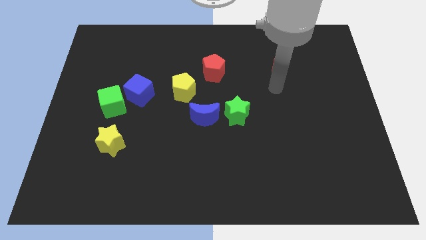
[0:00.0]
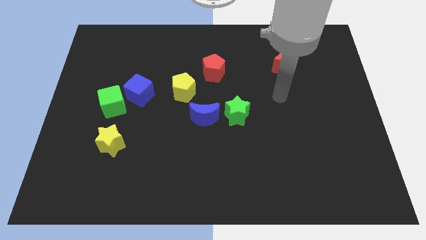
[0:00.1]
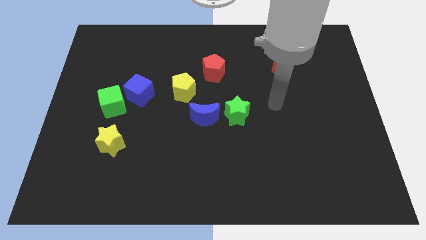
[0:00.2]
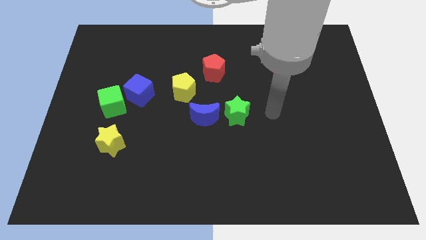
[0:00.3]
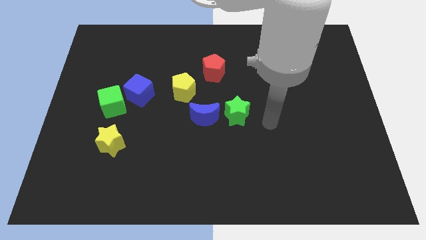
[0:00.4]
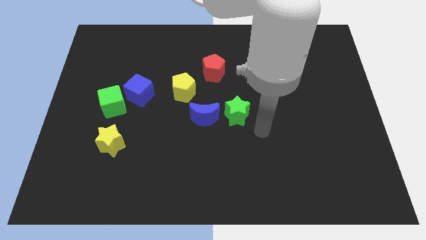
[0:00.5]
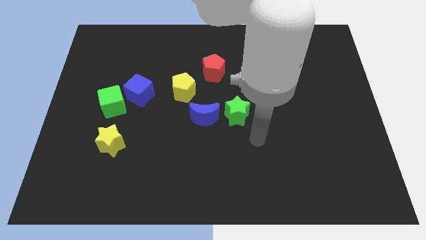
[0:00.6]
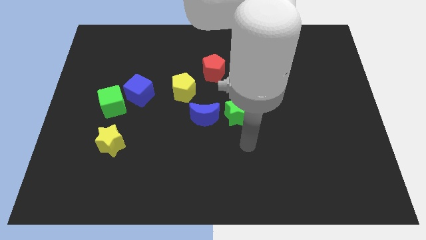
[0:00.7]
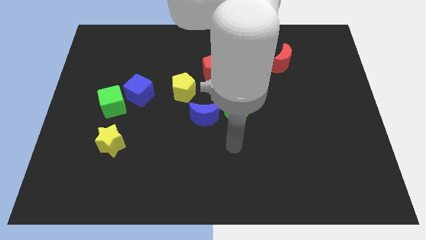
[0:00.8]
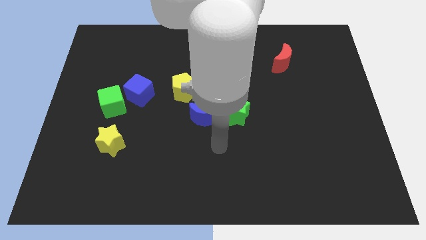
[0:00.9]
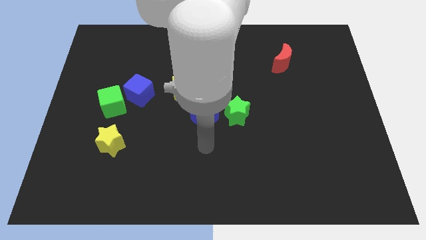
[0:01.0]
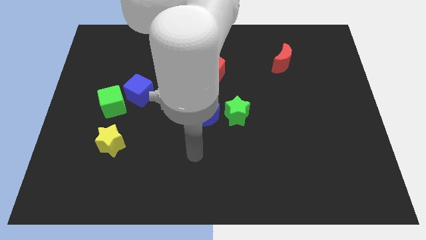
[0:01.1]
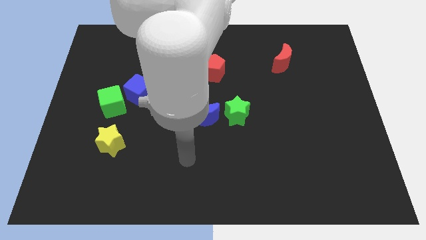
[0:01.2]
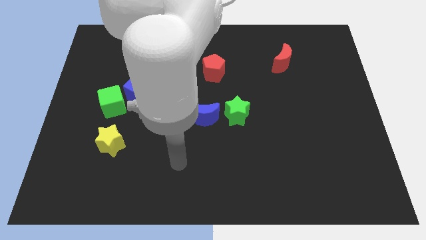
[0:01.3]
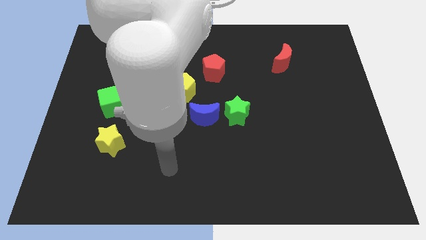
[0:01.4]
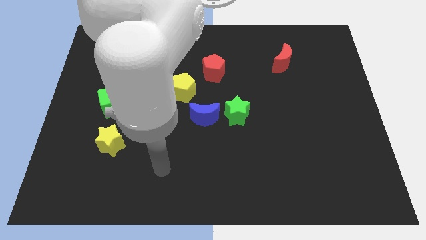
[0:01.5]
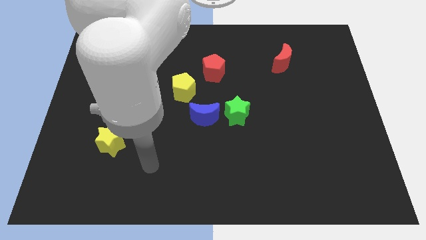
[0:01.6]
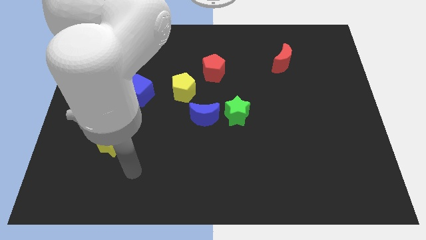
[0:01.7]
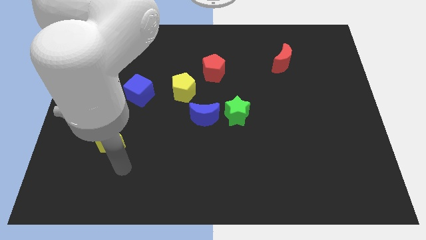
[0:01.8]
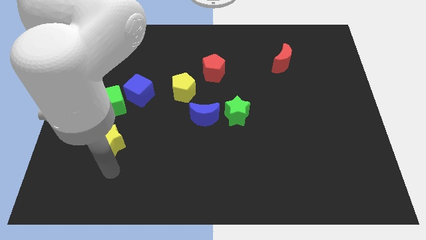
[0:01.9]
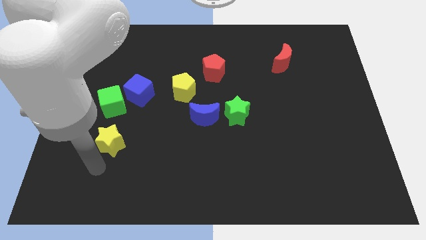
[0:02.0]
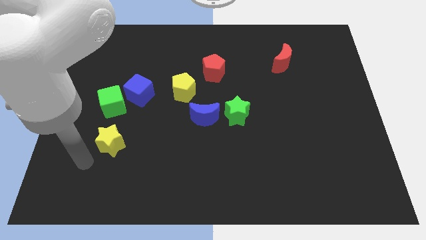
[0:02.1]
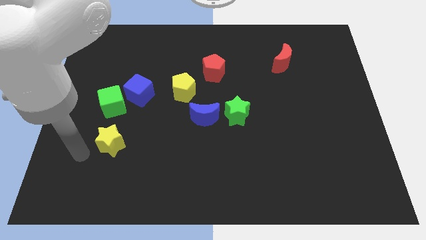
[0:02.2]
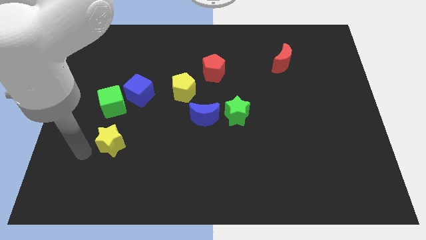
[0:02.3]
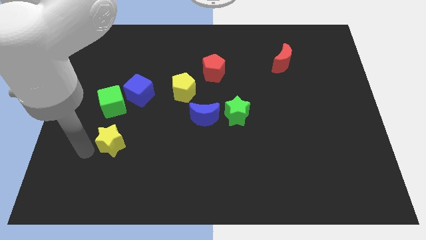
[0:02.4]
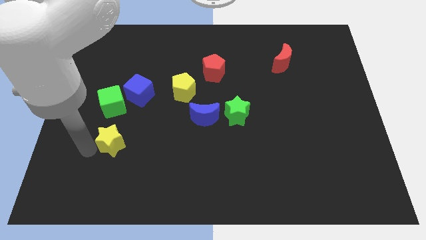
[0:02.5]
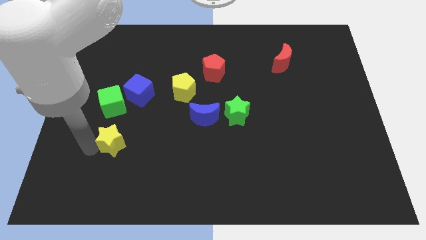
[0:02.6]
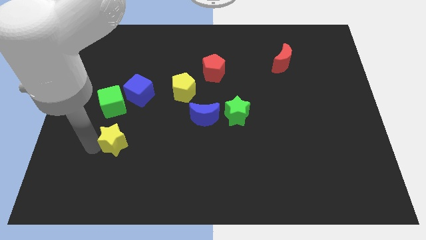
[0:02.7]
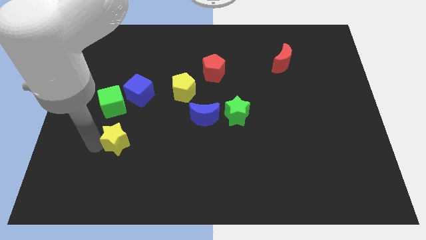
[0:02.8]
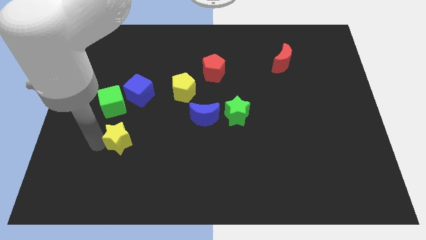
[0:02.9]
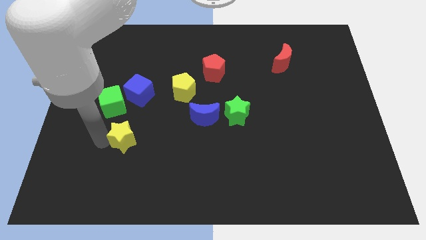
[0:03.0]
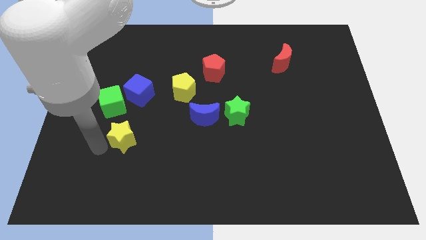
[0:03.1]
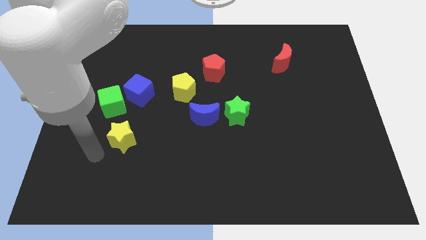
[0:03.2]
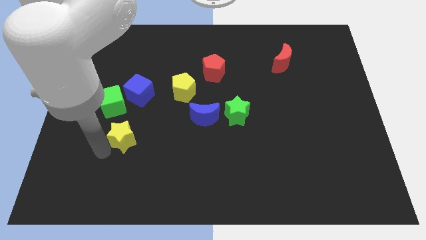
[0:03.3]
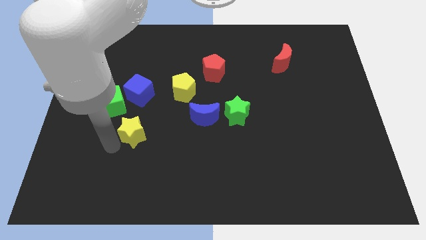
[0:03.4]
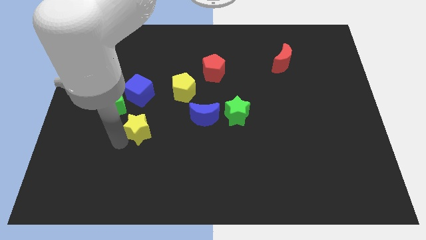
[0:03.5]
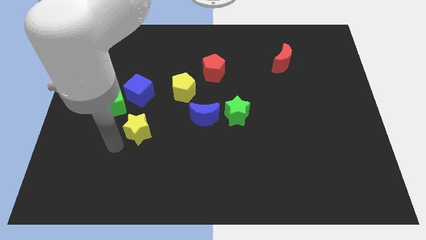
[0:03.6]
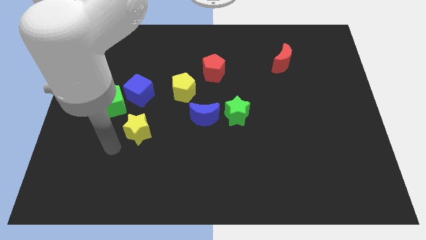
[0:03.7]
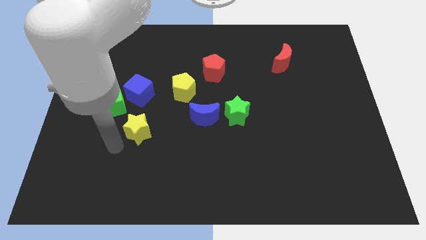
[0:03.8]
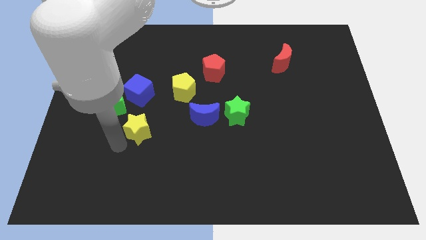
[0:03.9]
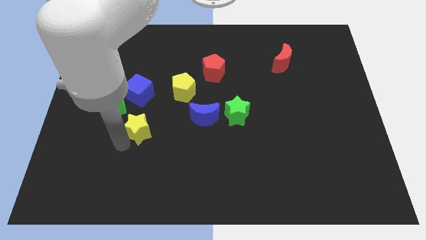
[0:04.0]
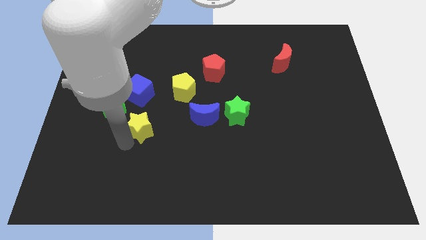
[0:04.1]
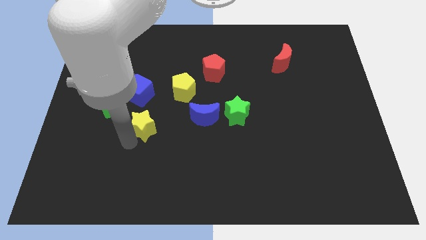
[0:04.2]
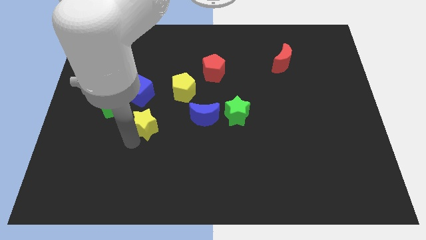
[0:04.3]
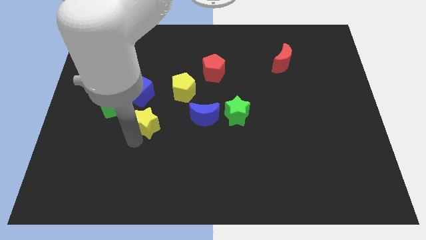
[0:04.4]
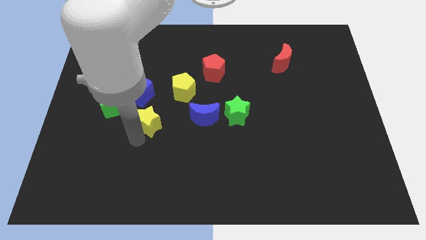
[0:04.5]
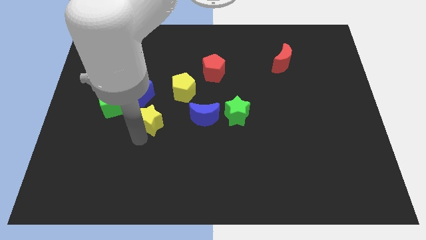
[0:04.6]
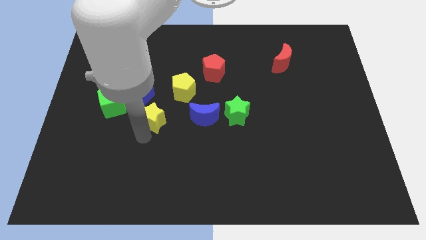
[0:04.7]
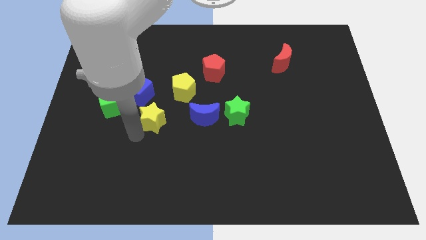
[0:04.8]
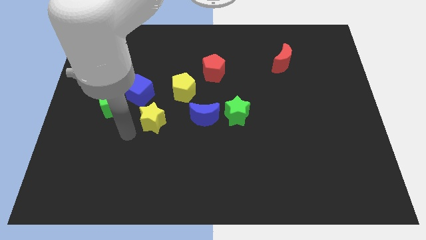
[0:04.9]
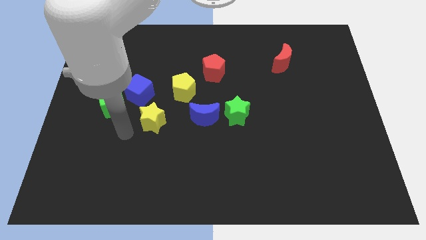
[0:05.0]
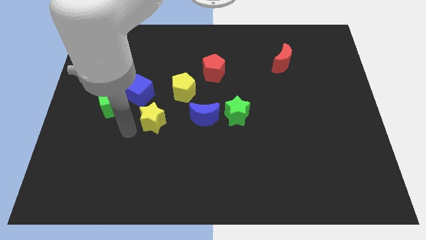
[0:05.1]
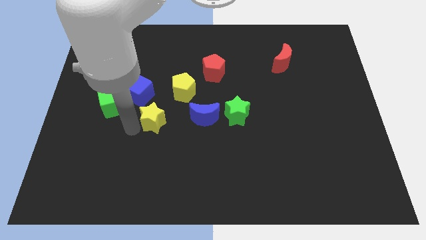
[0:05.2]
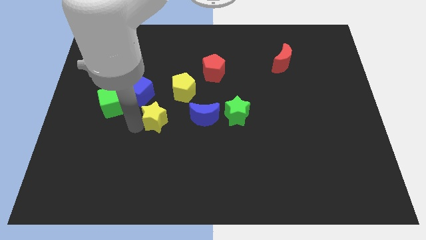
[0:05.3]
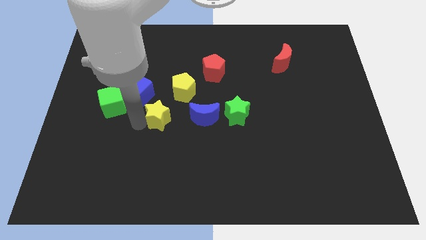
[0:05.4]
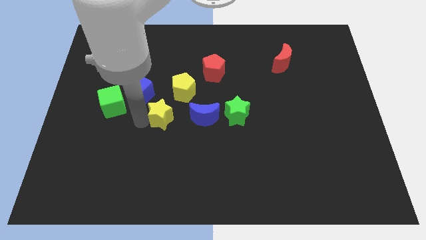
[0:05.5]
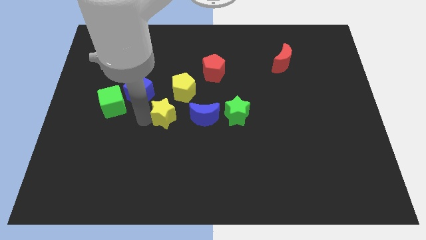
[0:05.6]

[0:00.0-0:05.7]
push the yellow star to the middle of the board

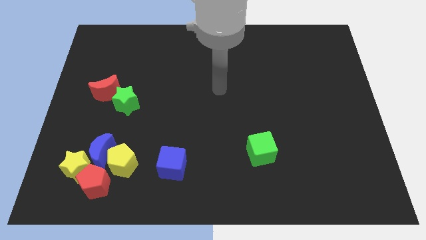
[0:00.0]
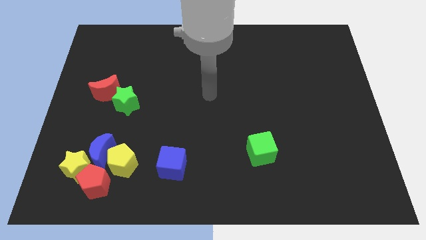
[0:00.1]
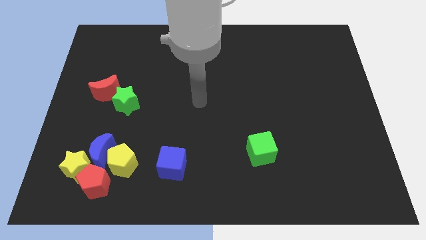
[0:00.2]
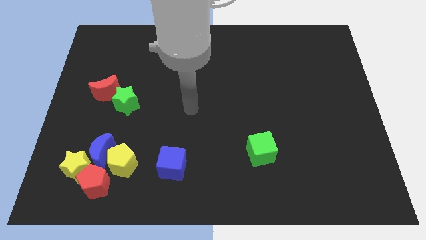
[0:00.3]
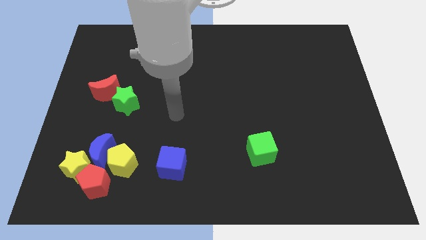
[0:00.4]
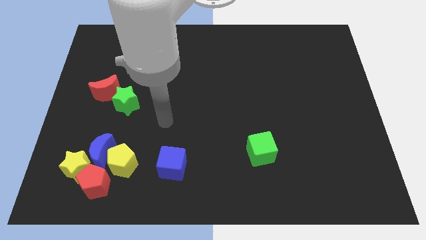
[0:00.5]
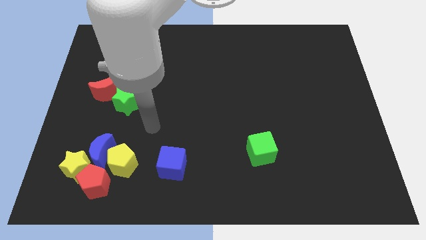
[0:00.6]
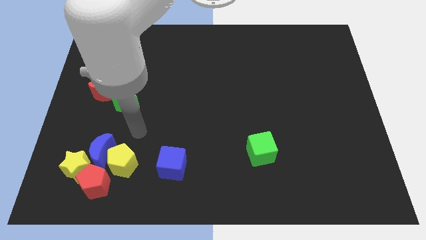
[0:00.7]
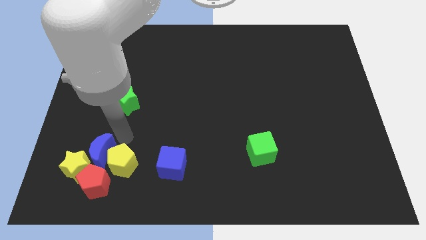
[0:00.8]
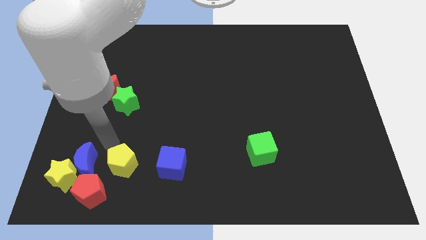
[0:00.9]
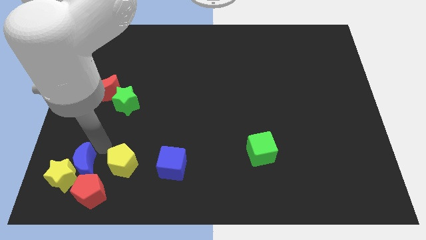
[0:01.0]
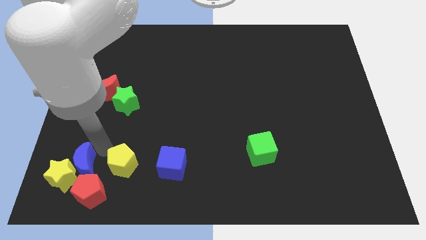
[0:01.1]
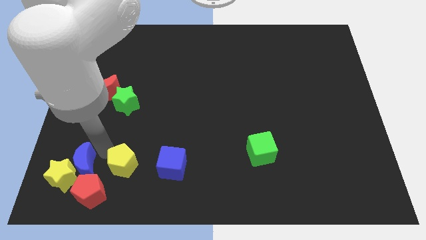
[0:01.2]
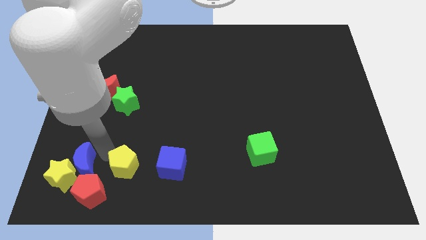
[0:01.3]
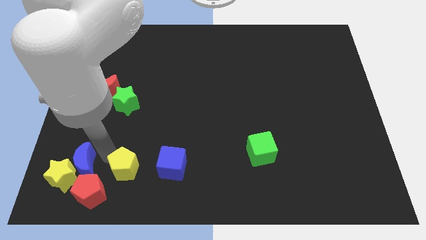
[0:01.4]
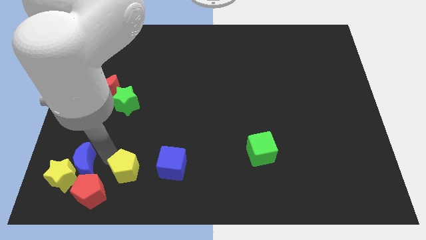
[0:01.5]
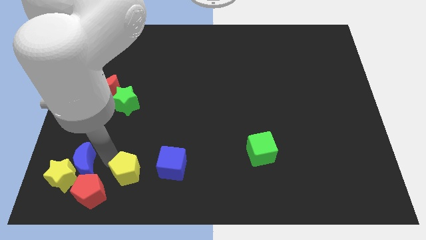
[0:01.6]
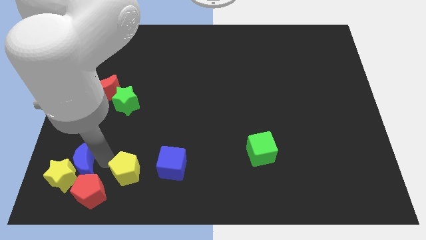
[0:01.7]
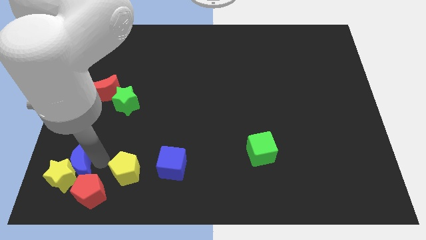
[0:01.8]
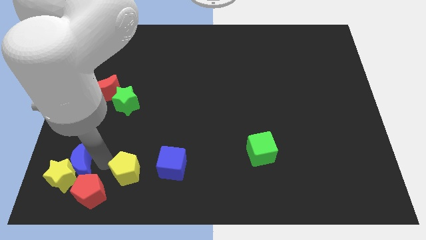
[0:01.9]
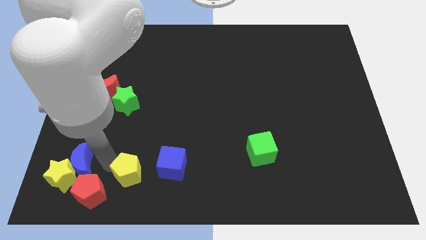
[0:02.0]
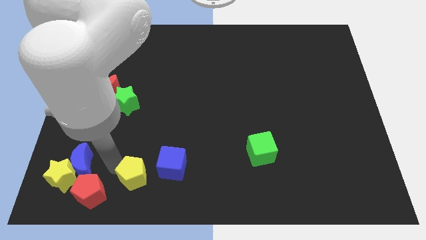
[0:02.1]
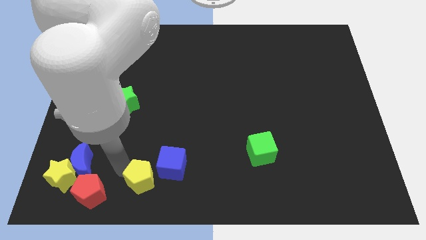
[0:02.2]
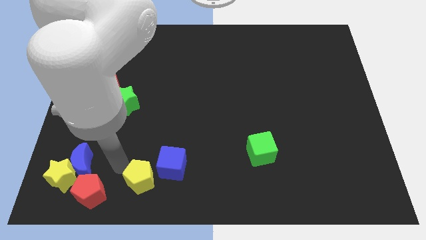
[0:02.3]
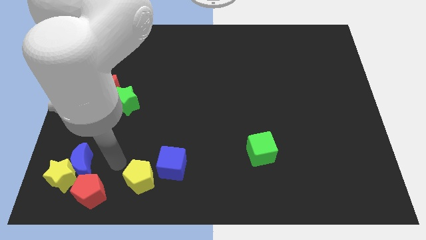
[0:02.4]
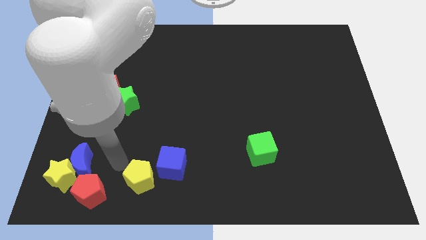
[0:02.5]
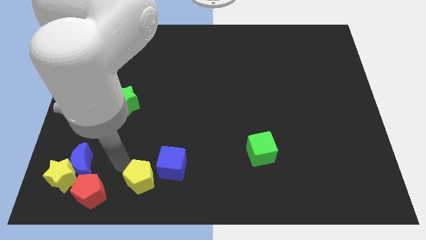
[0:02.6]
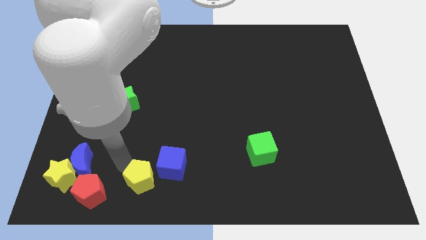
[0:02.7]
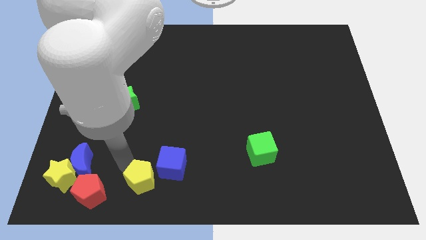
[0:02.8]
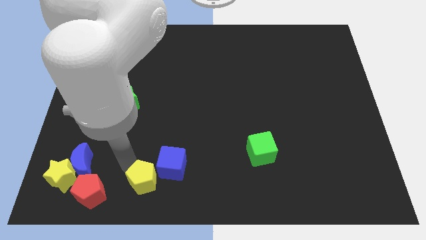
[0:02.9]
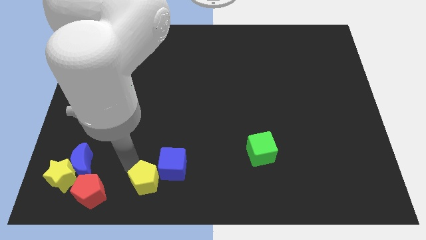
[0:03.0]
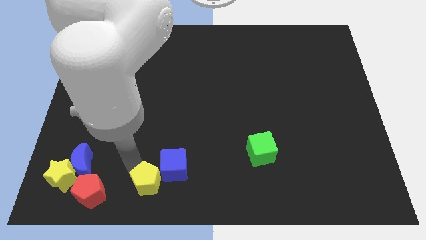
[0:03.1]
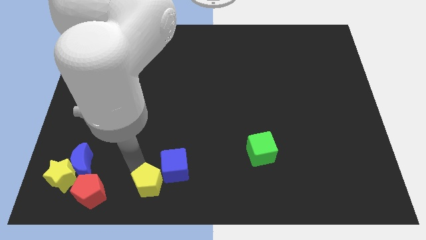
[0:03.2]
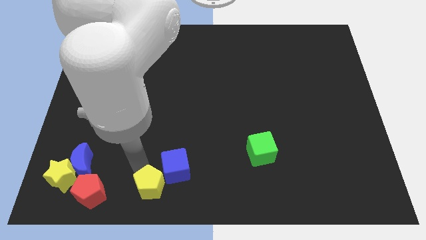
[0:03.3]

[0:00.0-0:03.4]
put the yellow pentagon to the bottom side
